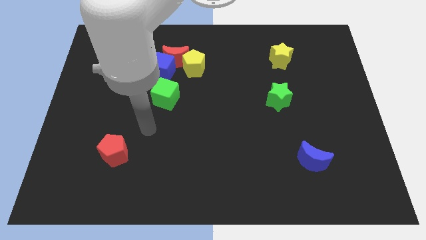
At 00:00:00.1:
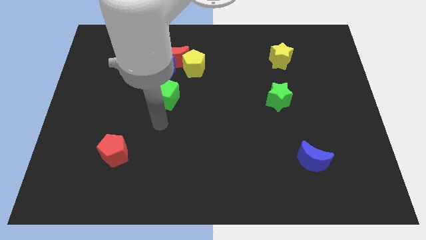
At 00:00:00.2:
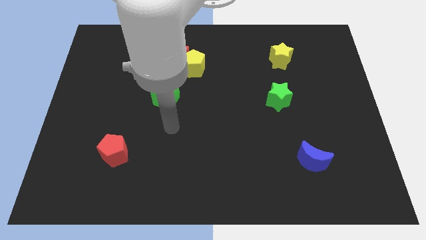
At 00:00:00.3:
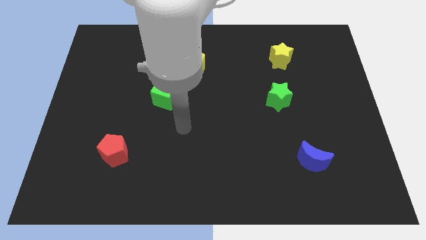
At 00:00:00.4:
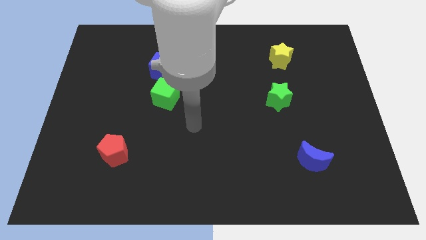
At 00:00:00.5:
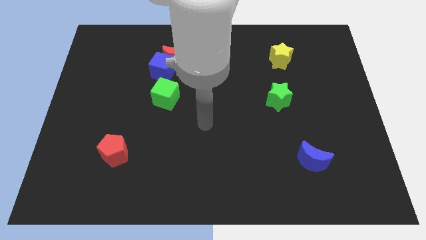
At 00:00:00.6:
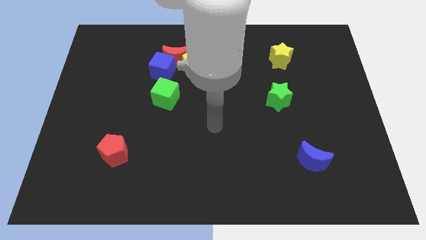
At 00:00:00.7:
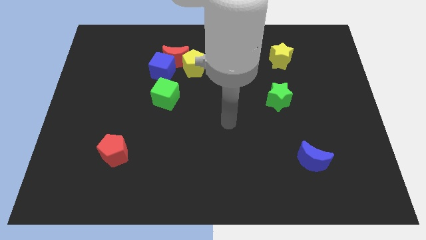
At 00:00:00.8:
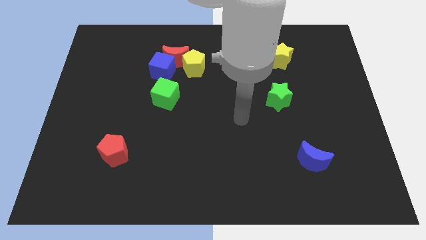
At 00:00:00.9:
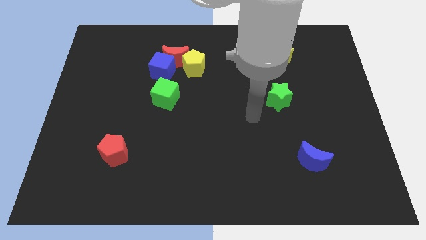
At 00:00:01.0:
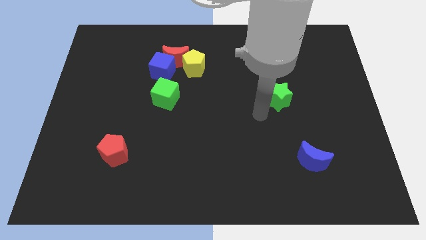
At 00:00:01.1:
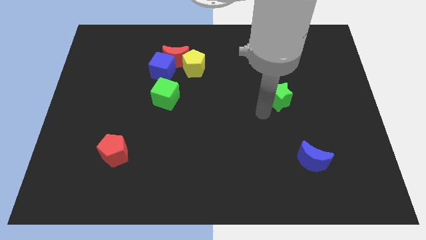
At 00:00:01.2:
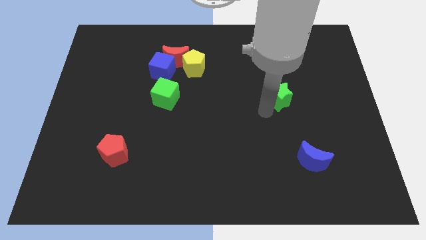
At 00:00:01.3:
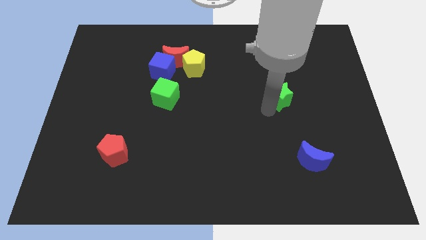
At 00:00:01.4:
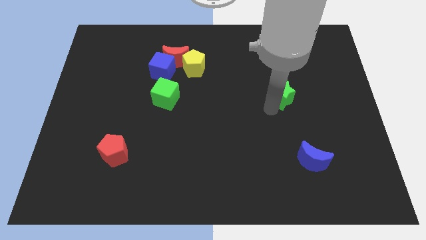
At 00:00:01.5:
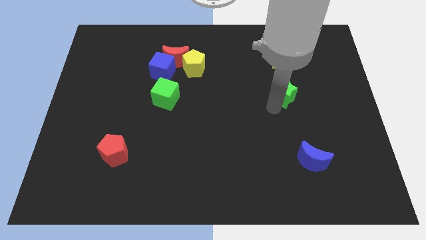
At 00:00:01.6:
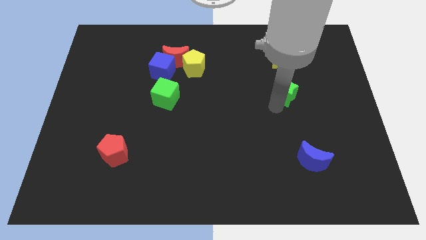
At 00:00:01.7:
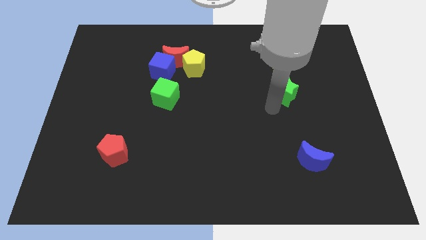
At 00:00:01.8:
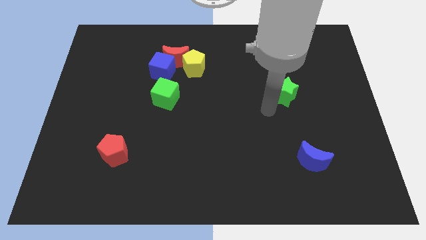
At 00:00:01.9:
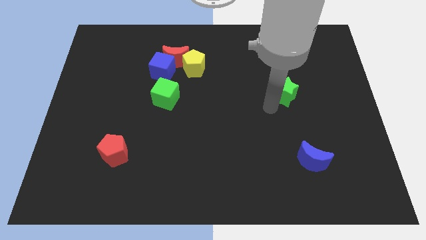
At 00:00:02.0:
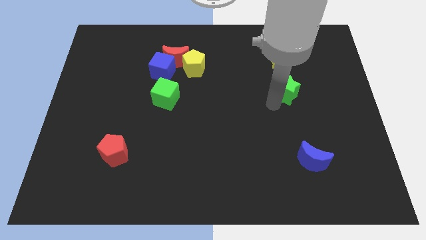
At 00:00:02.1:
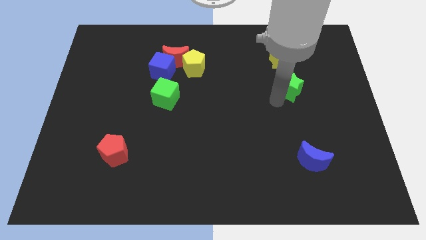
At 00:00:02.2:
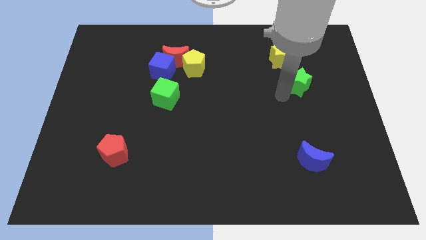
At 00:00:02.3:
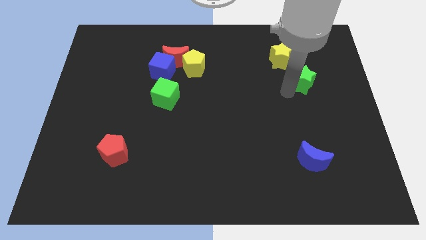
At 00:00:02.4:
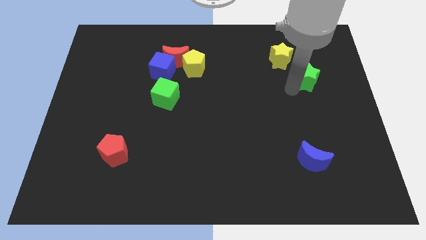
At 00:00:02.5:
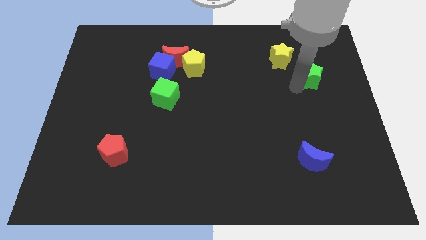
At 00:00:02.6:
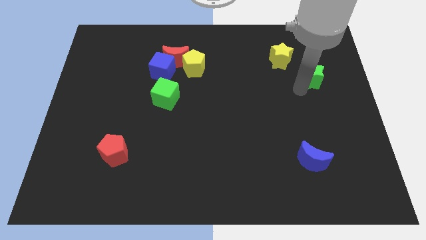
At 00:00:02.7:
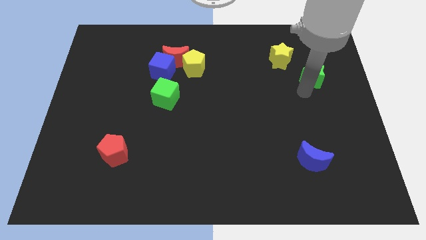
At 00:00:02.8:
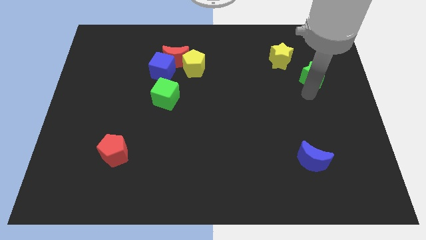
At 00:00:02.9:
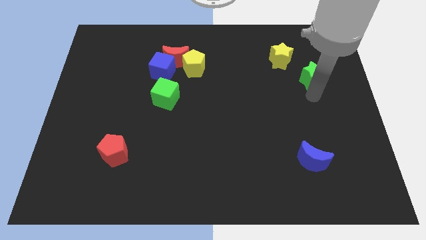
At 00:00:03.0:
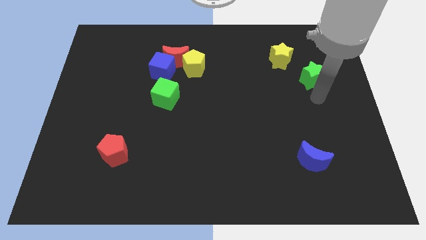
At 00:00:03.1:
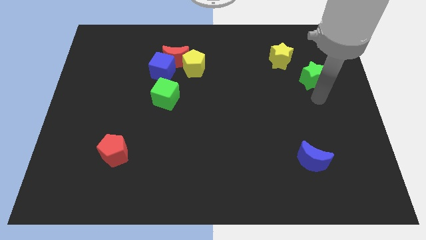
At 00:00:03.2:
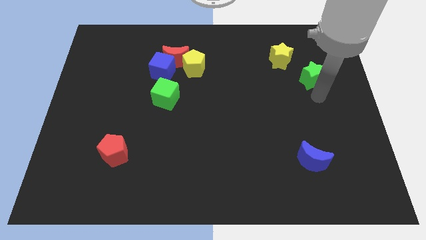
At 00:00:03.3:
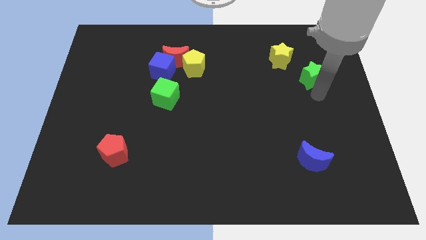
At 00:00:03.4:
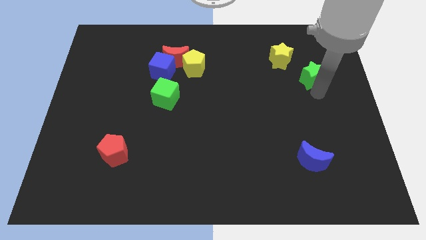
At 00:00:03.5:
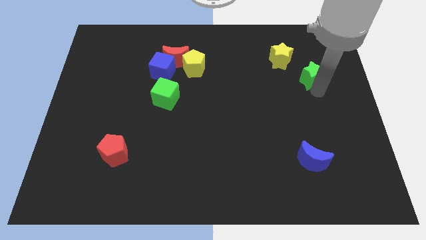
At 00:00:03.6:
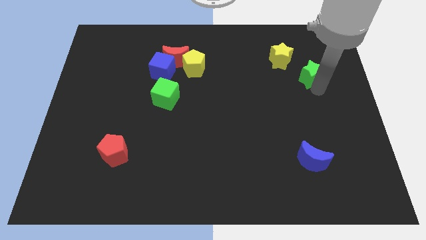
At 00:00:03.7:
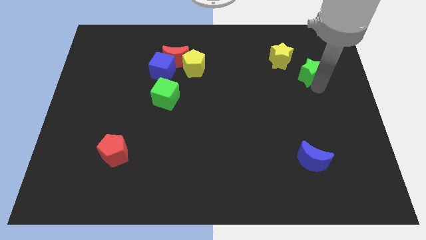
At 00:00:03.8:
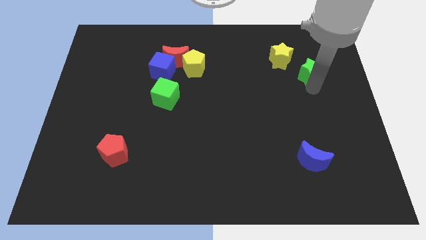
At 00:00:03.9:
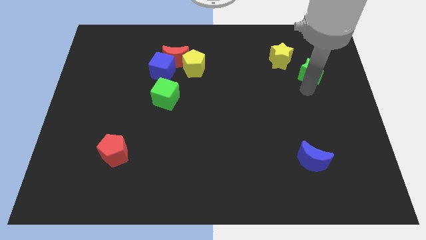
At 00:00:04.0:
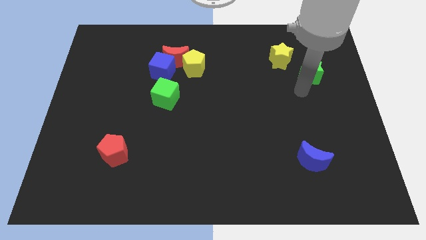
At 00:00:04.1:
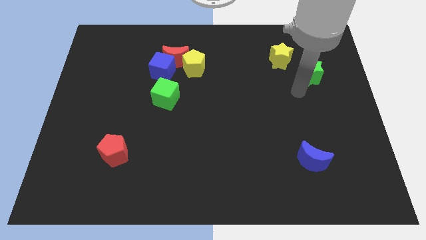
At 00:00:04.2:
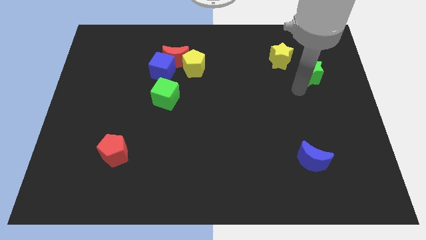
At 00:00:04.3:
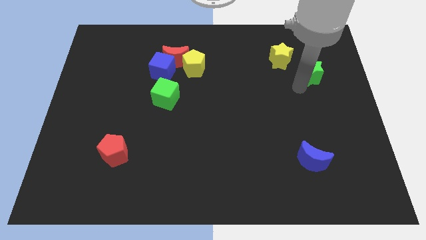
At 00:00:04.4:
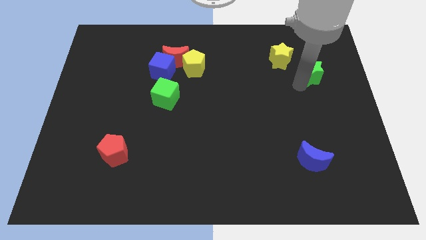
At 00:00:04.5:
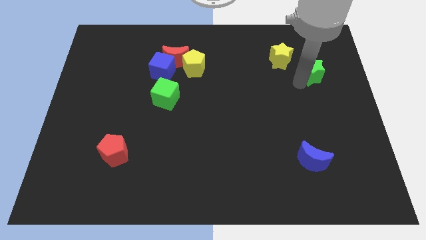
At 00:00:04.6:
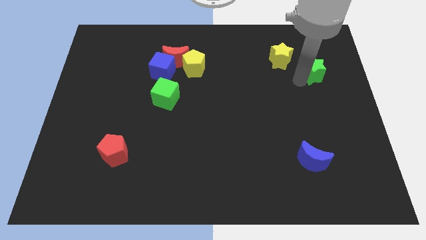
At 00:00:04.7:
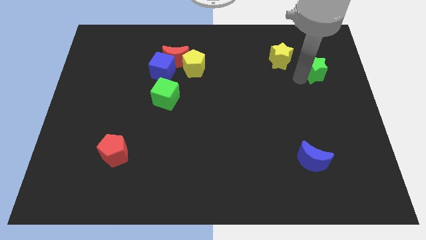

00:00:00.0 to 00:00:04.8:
put the green star to the right of the yellow star

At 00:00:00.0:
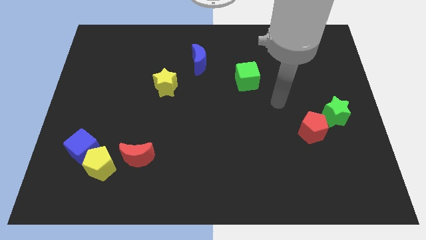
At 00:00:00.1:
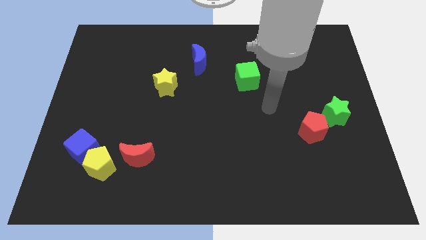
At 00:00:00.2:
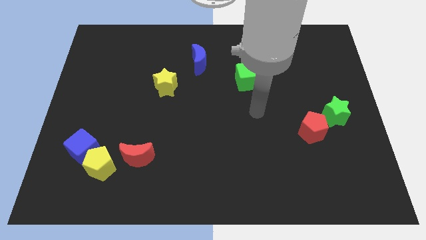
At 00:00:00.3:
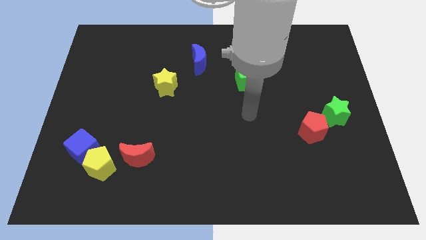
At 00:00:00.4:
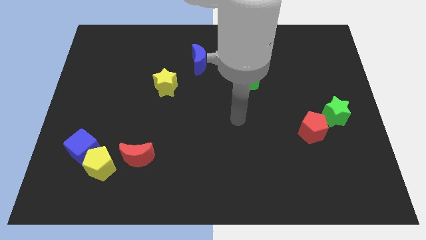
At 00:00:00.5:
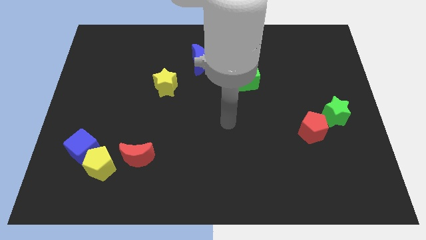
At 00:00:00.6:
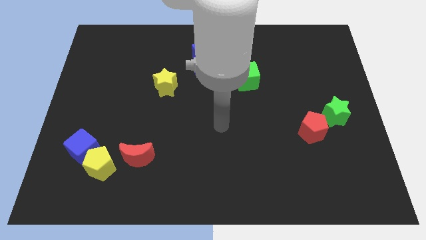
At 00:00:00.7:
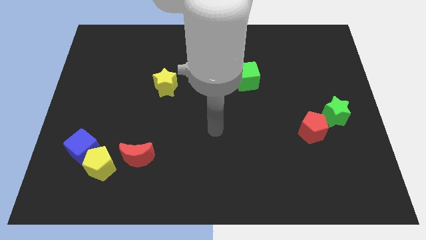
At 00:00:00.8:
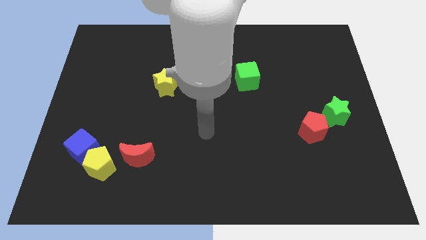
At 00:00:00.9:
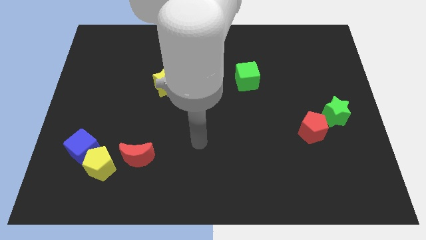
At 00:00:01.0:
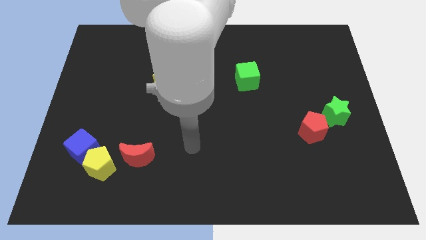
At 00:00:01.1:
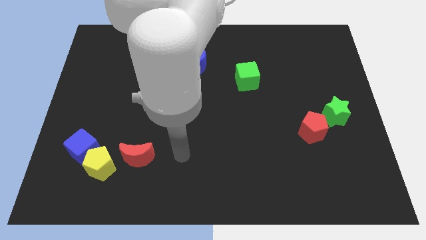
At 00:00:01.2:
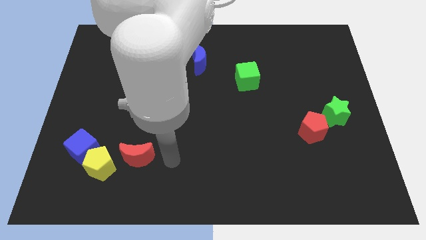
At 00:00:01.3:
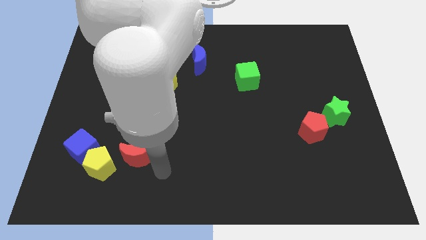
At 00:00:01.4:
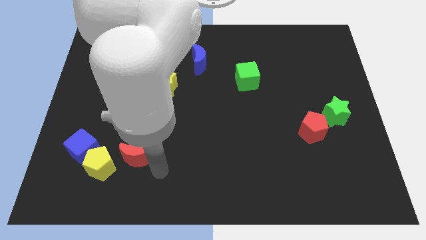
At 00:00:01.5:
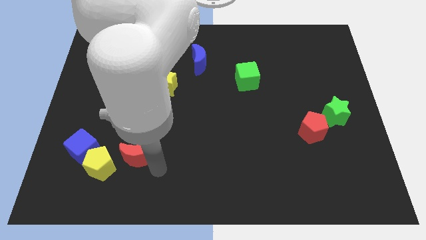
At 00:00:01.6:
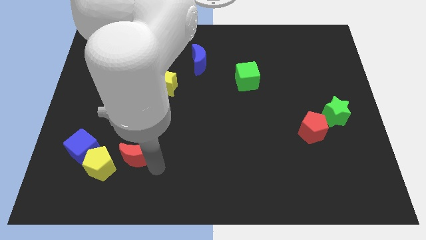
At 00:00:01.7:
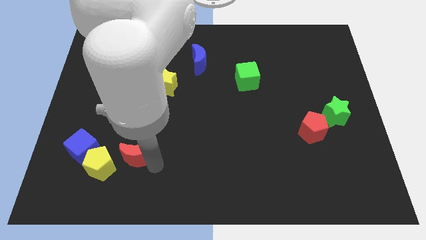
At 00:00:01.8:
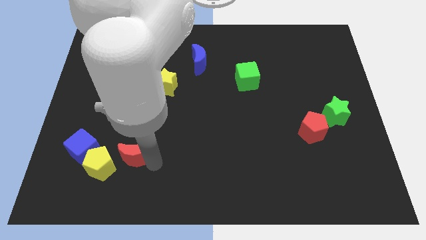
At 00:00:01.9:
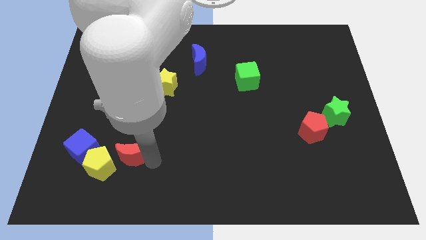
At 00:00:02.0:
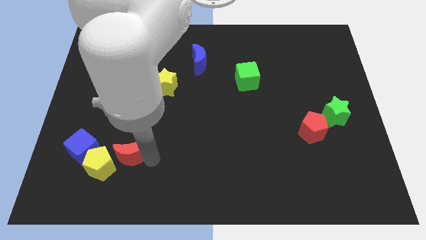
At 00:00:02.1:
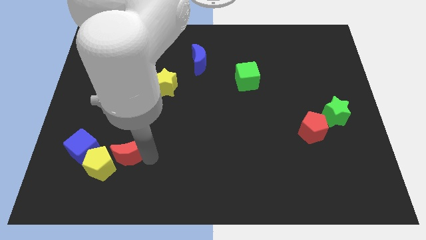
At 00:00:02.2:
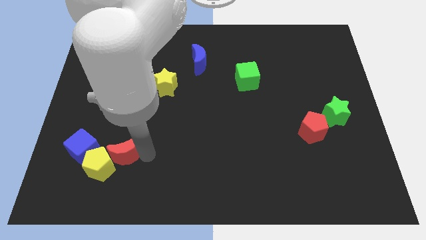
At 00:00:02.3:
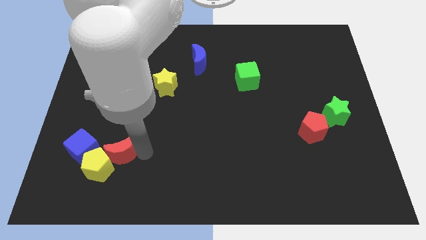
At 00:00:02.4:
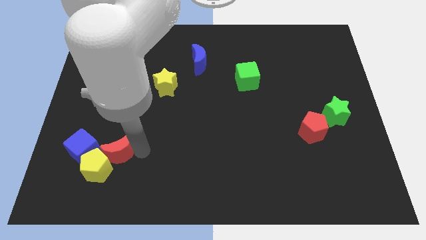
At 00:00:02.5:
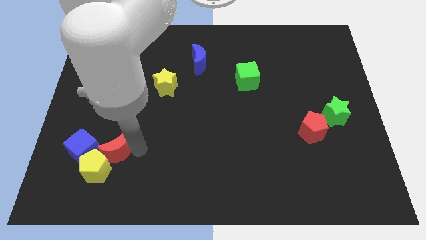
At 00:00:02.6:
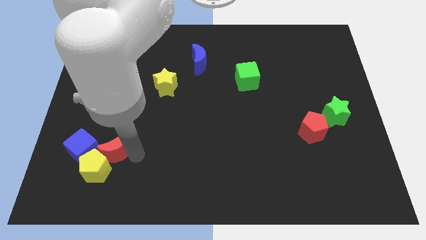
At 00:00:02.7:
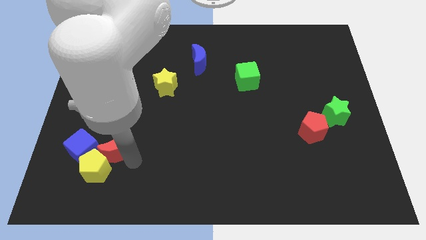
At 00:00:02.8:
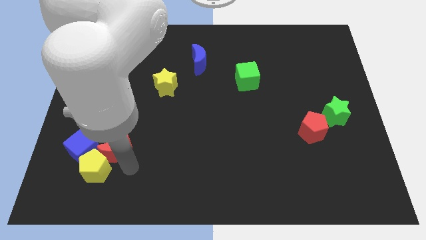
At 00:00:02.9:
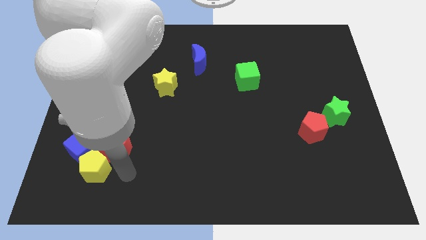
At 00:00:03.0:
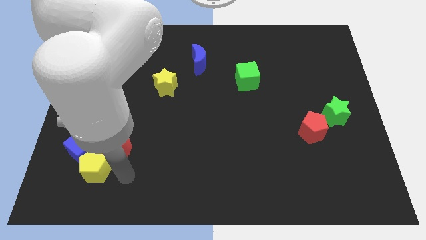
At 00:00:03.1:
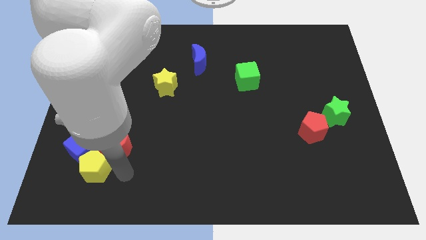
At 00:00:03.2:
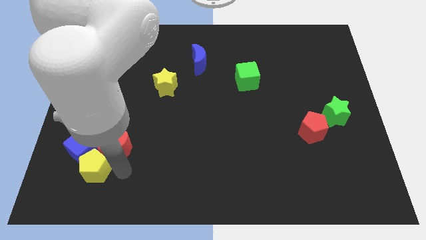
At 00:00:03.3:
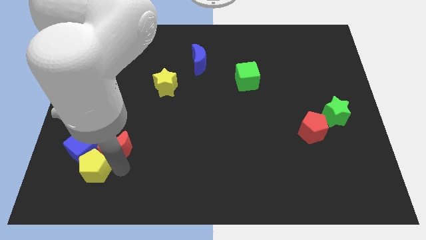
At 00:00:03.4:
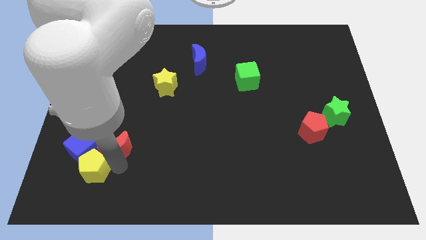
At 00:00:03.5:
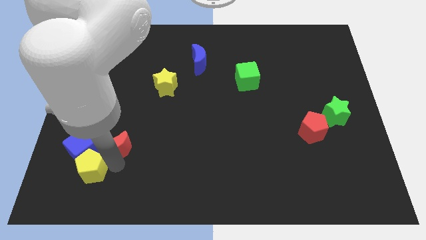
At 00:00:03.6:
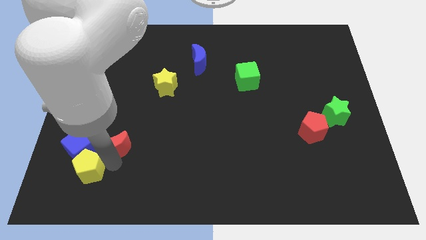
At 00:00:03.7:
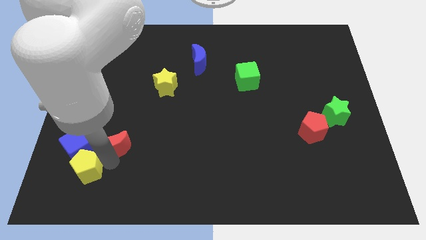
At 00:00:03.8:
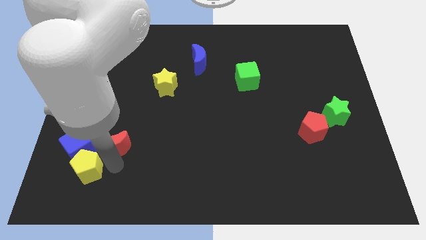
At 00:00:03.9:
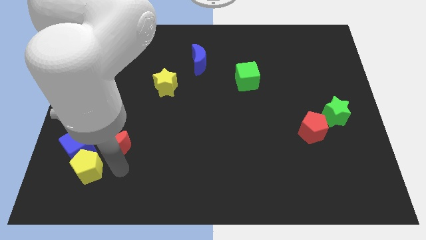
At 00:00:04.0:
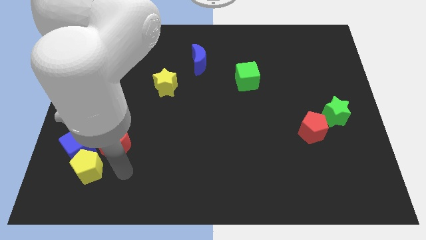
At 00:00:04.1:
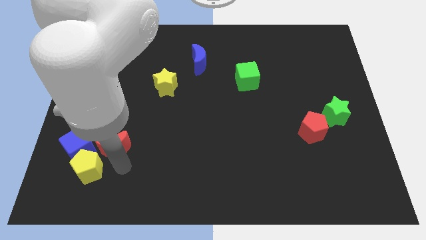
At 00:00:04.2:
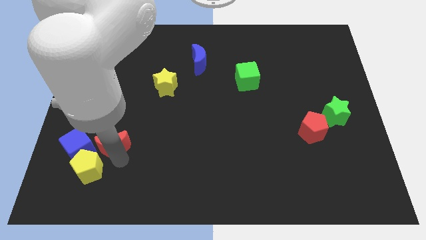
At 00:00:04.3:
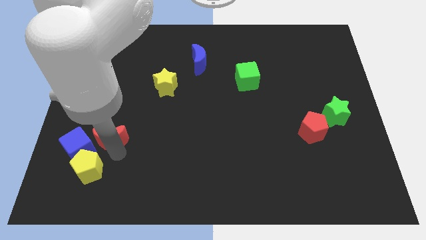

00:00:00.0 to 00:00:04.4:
move the red moon to the top right side of the blue cube
